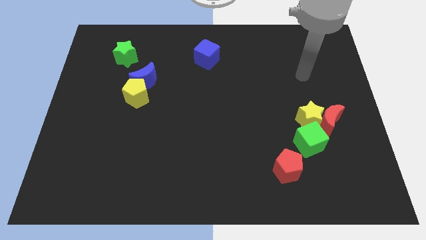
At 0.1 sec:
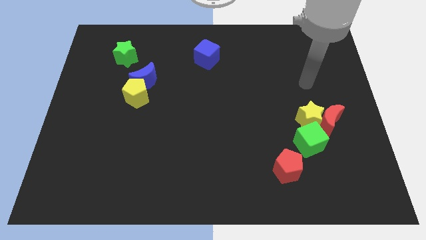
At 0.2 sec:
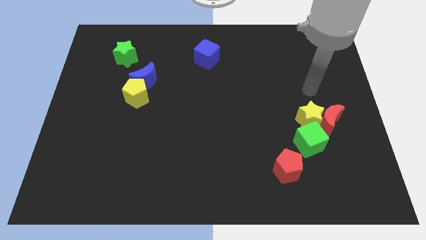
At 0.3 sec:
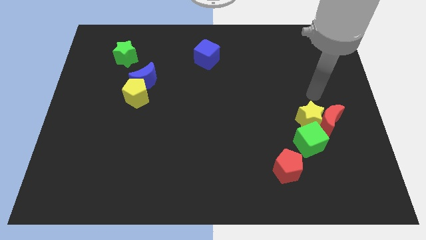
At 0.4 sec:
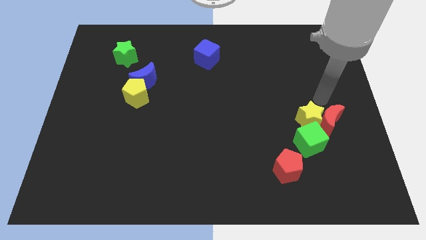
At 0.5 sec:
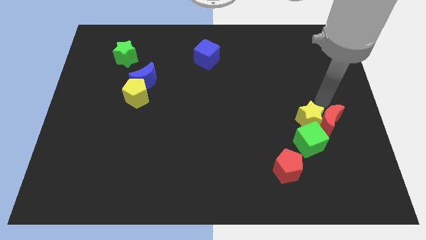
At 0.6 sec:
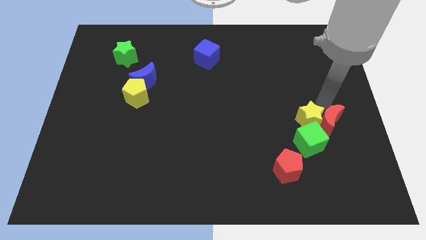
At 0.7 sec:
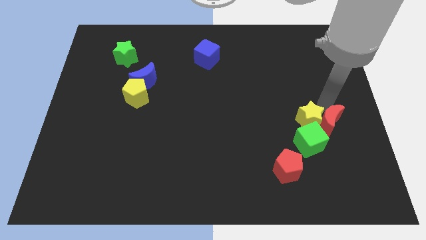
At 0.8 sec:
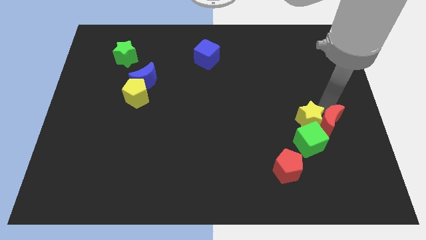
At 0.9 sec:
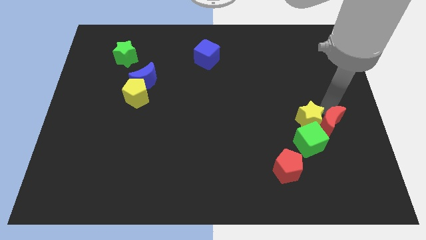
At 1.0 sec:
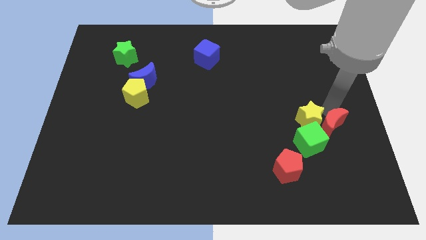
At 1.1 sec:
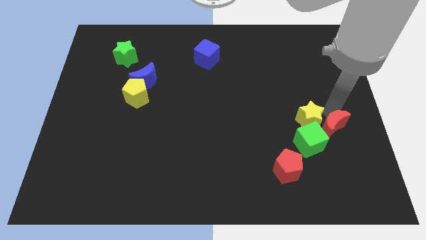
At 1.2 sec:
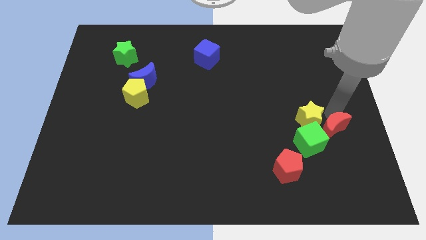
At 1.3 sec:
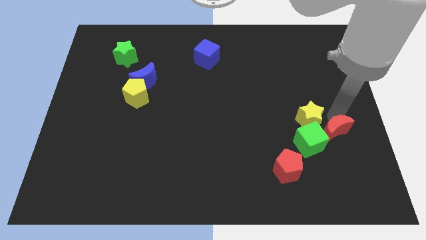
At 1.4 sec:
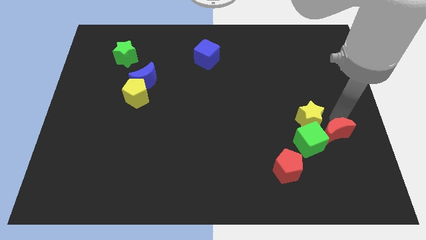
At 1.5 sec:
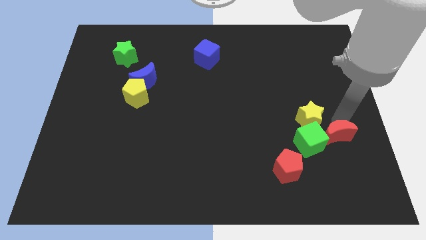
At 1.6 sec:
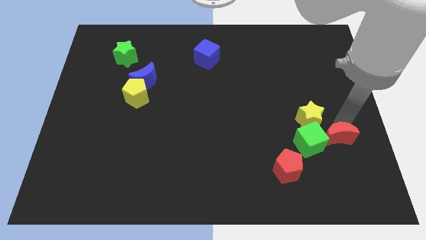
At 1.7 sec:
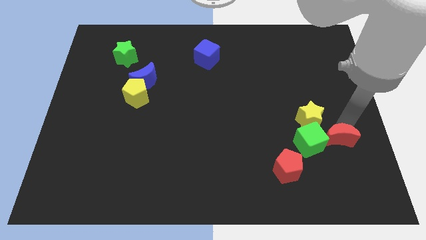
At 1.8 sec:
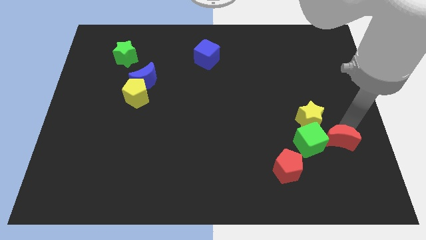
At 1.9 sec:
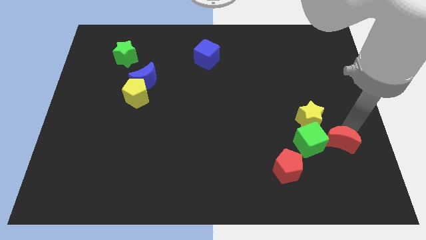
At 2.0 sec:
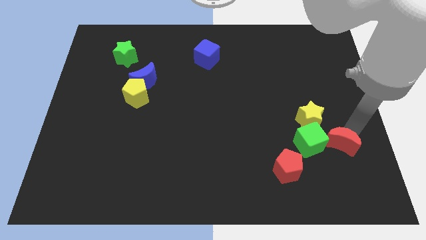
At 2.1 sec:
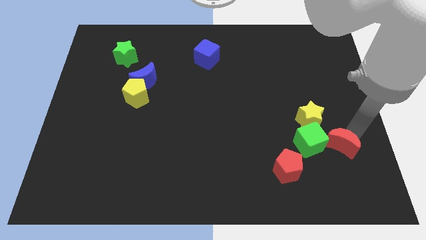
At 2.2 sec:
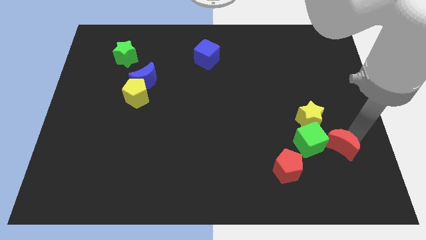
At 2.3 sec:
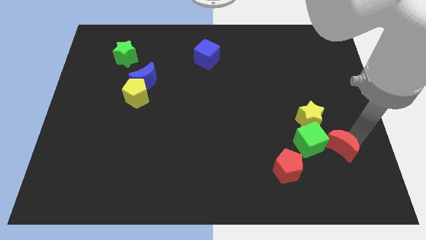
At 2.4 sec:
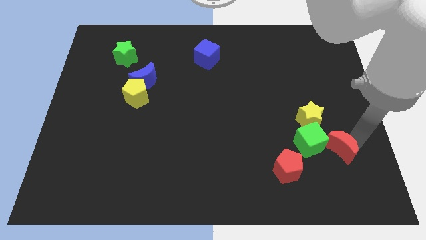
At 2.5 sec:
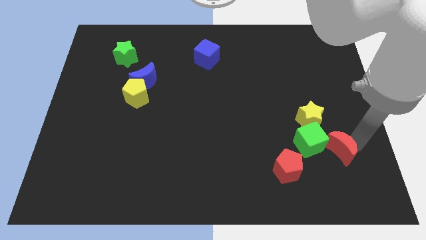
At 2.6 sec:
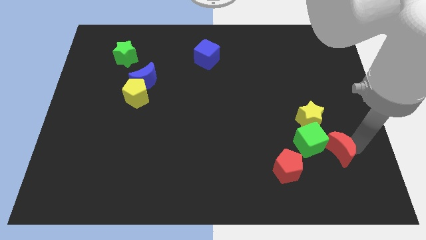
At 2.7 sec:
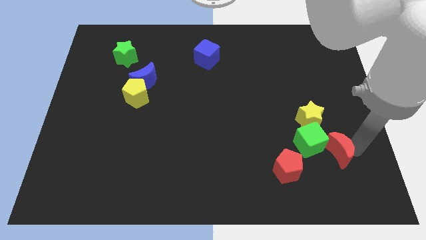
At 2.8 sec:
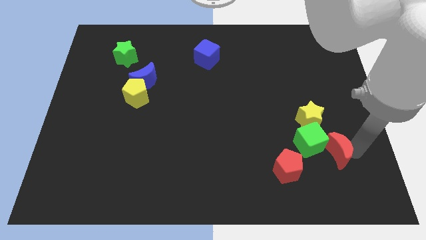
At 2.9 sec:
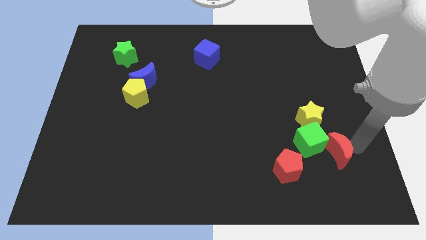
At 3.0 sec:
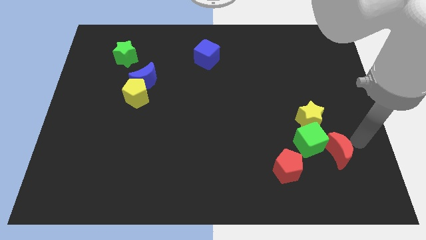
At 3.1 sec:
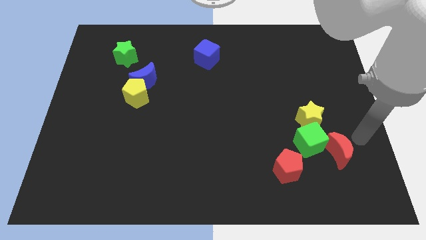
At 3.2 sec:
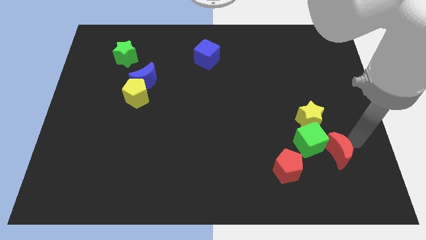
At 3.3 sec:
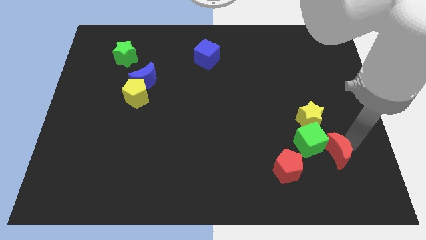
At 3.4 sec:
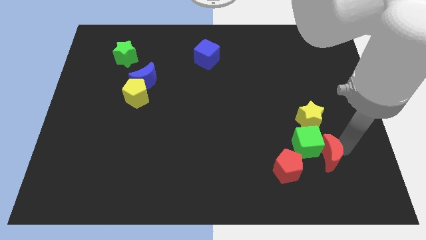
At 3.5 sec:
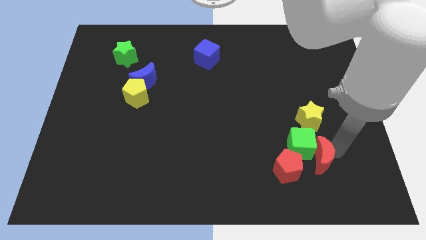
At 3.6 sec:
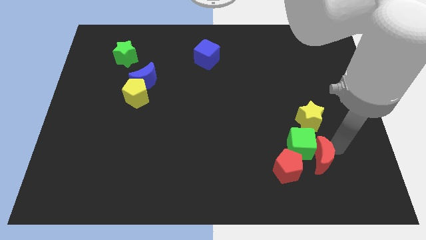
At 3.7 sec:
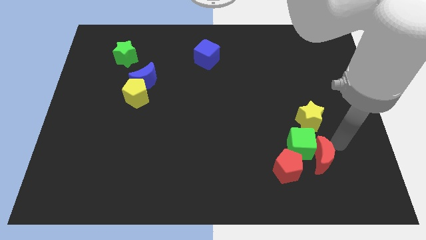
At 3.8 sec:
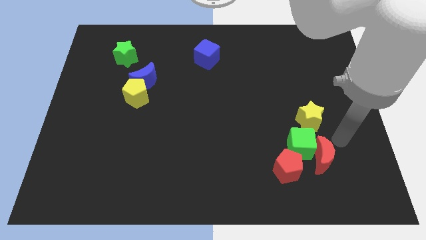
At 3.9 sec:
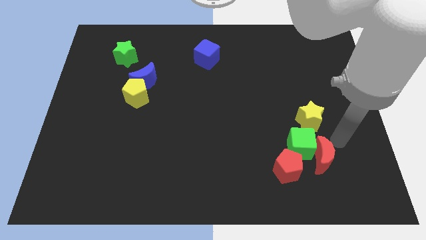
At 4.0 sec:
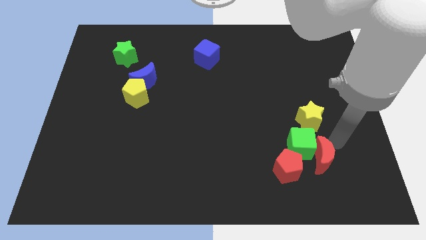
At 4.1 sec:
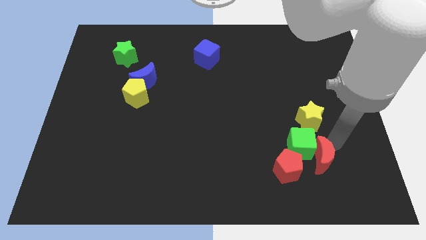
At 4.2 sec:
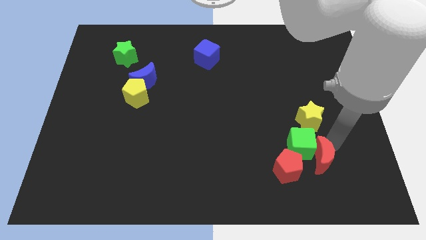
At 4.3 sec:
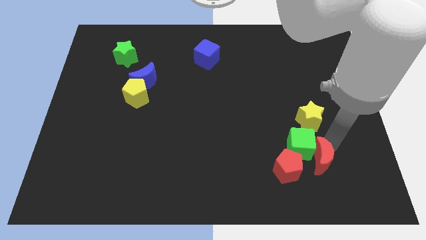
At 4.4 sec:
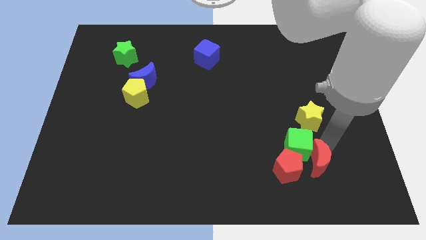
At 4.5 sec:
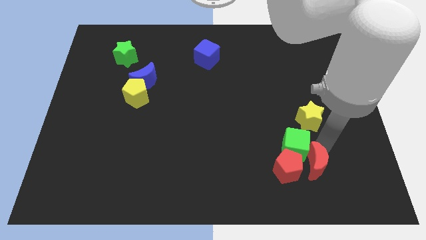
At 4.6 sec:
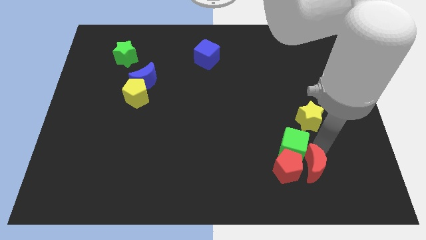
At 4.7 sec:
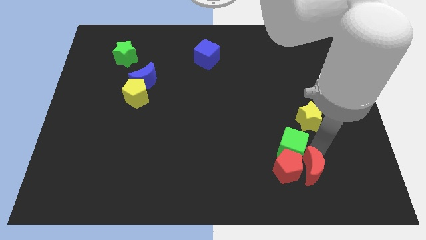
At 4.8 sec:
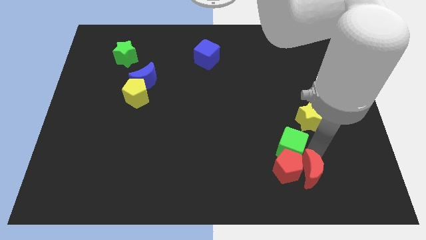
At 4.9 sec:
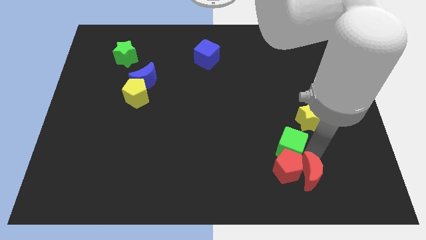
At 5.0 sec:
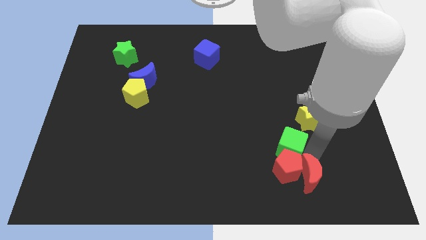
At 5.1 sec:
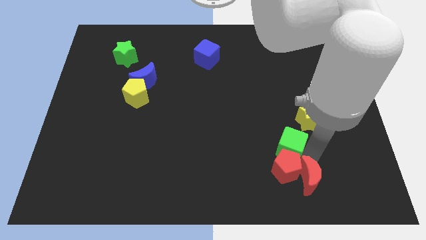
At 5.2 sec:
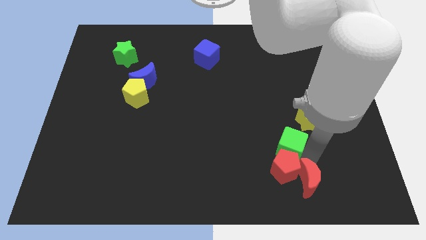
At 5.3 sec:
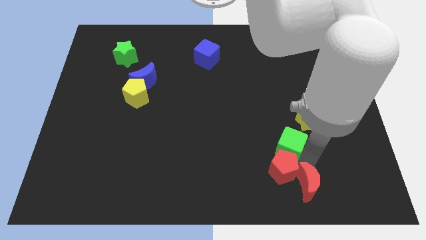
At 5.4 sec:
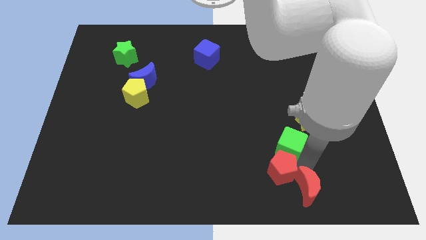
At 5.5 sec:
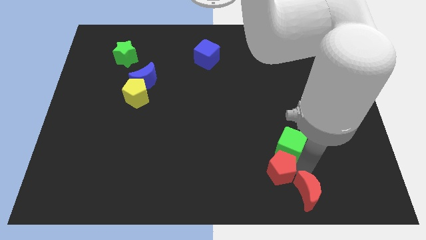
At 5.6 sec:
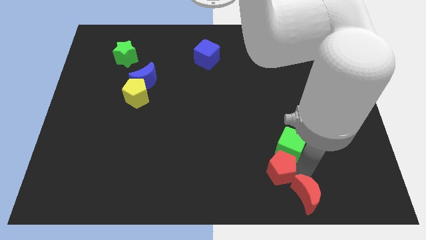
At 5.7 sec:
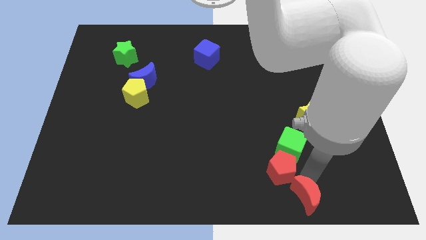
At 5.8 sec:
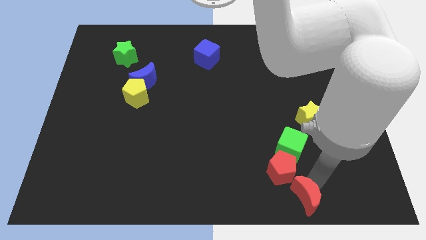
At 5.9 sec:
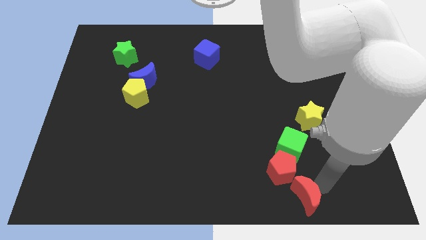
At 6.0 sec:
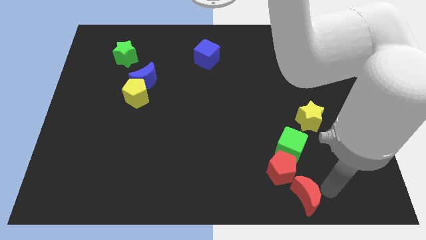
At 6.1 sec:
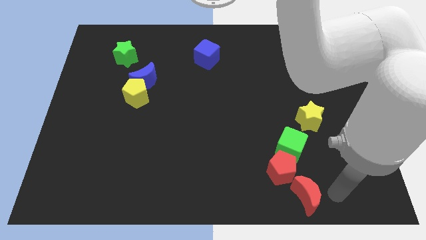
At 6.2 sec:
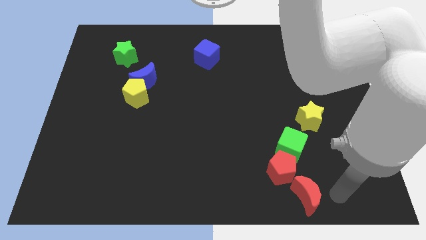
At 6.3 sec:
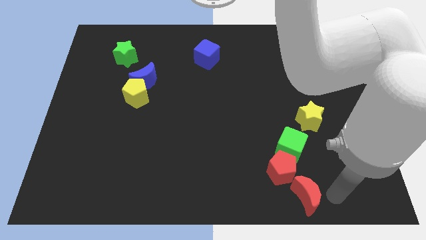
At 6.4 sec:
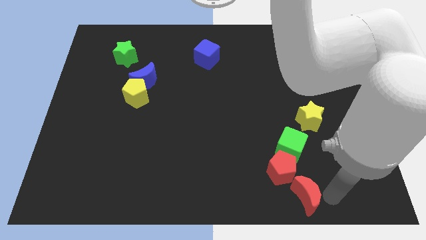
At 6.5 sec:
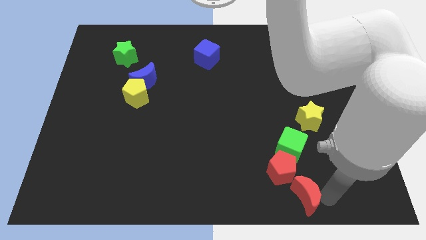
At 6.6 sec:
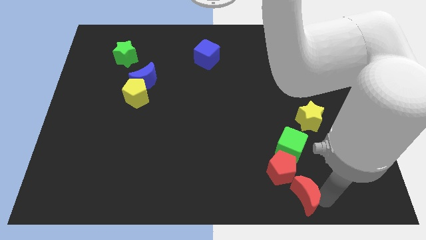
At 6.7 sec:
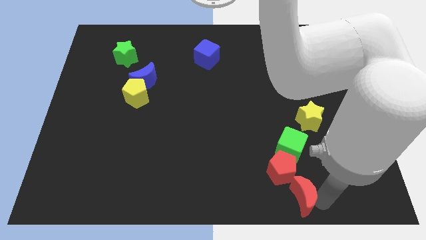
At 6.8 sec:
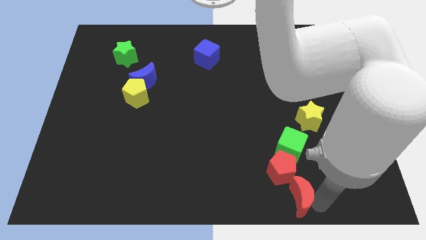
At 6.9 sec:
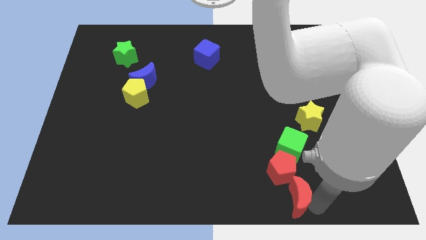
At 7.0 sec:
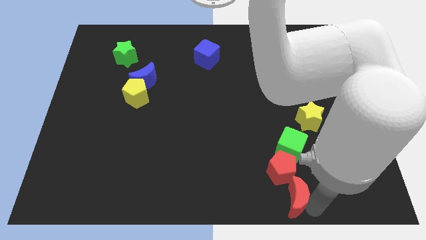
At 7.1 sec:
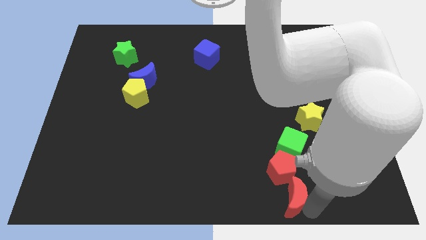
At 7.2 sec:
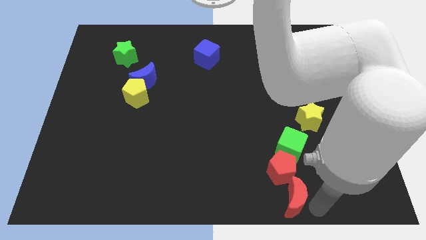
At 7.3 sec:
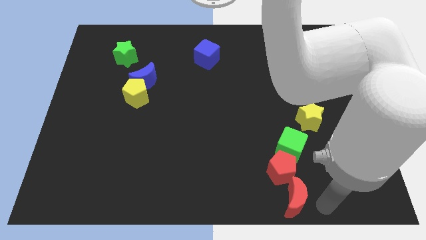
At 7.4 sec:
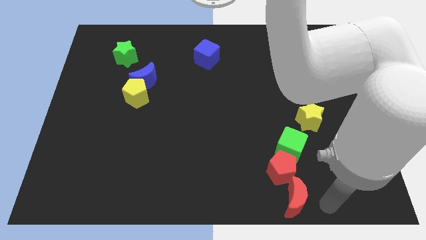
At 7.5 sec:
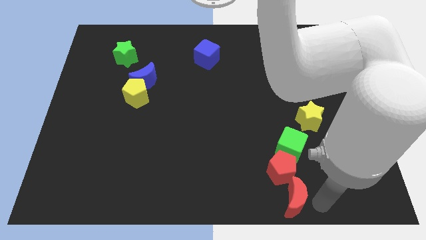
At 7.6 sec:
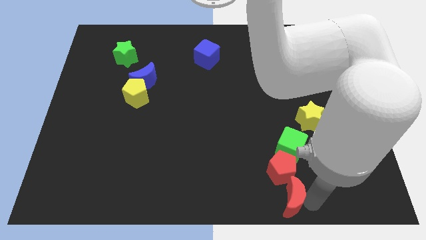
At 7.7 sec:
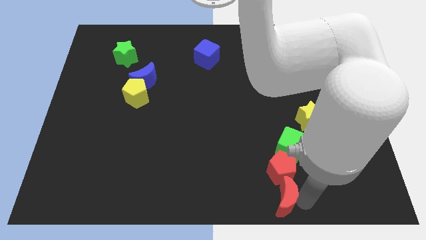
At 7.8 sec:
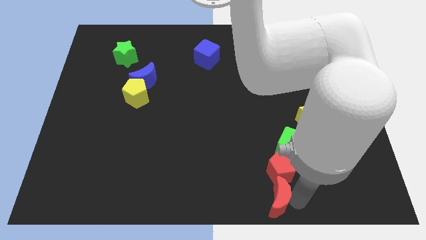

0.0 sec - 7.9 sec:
put the red moon to the bottom side
